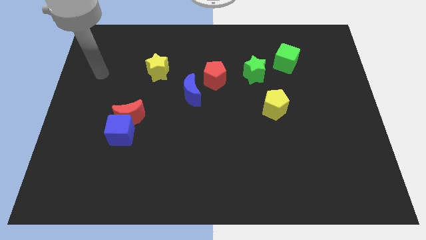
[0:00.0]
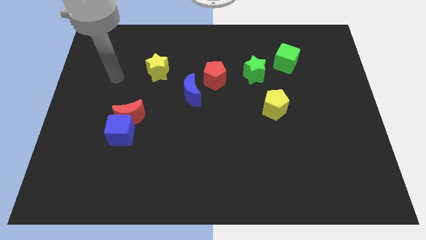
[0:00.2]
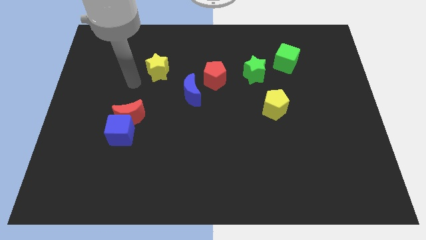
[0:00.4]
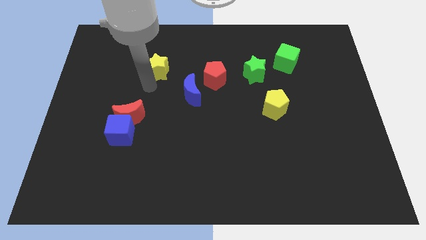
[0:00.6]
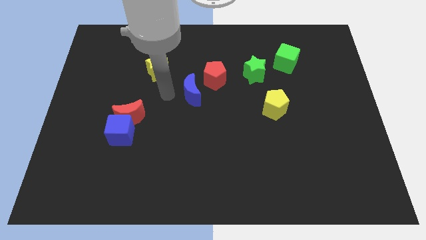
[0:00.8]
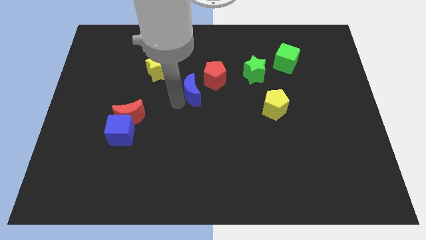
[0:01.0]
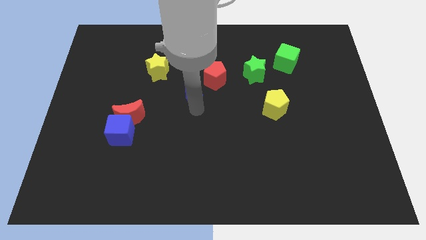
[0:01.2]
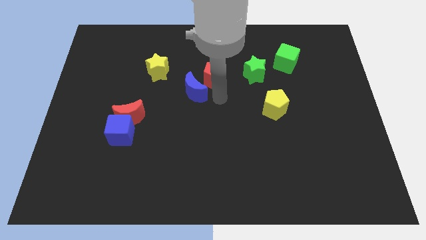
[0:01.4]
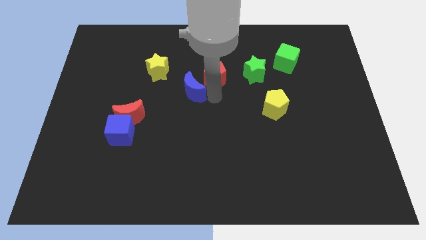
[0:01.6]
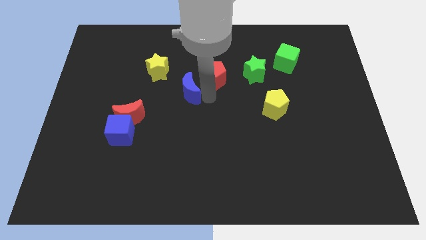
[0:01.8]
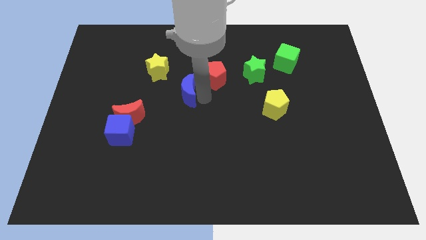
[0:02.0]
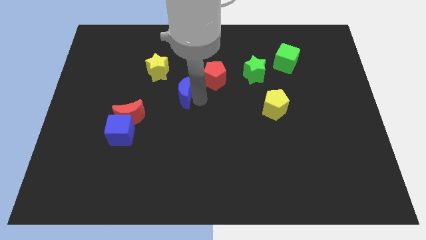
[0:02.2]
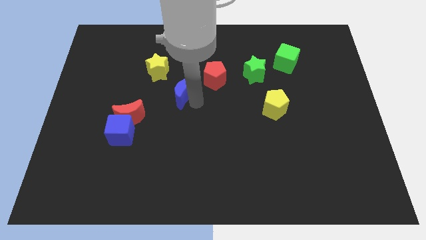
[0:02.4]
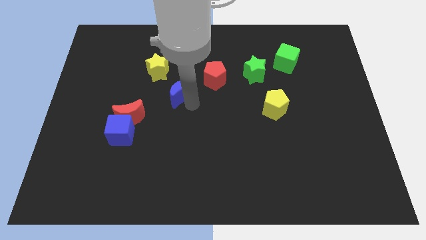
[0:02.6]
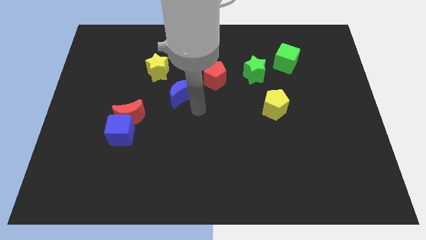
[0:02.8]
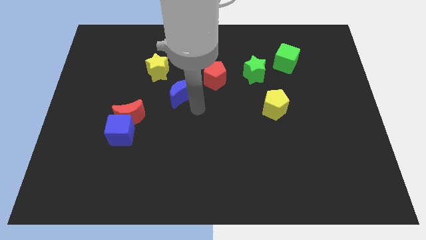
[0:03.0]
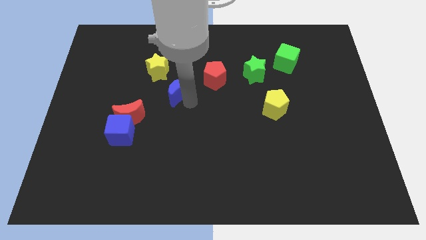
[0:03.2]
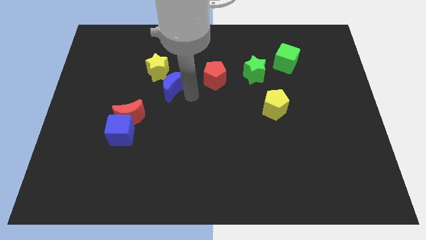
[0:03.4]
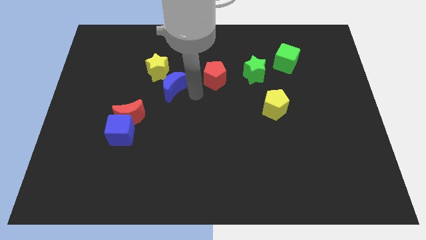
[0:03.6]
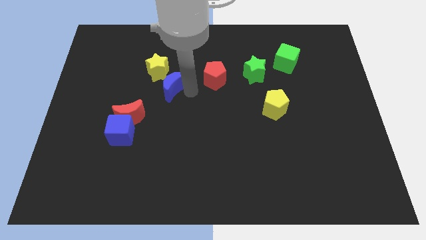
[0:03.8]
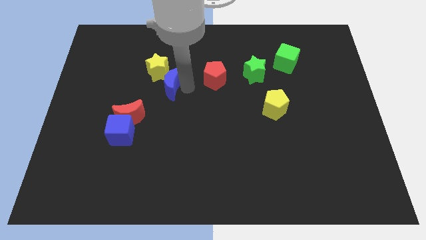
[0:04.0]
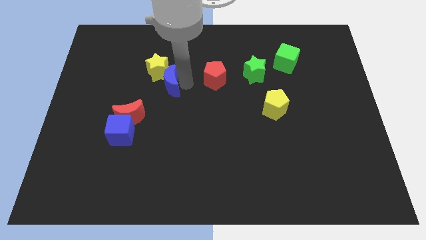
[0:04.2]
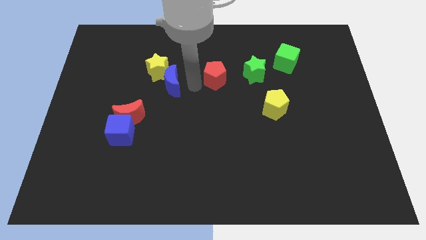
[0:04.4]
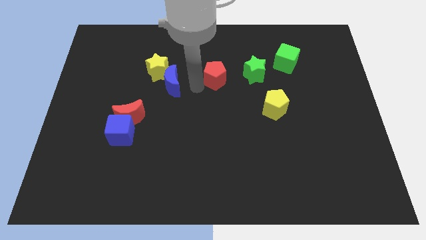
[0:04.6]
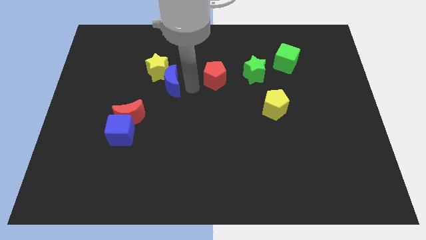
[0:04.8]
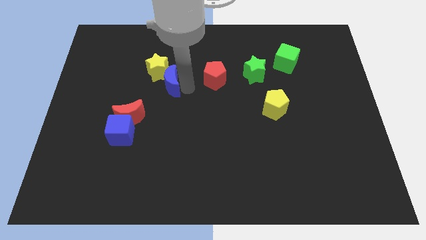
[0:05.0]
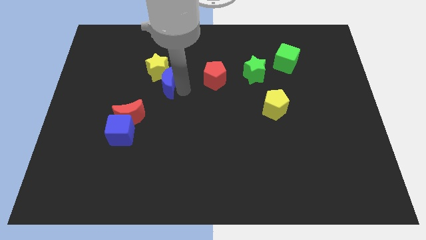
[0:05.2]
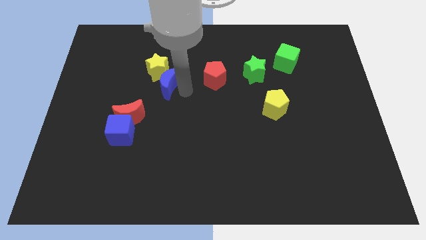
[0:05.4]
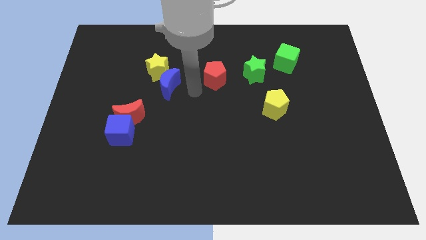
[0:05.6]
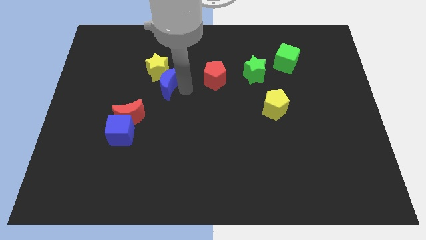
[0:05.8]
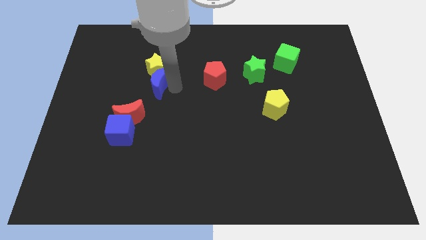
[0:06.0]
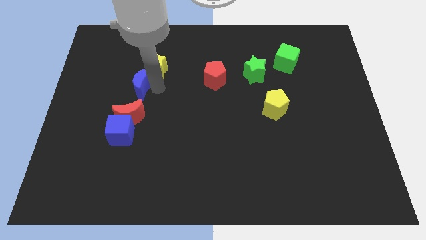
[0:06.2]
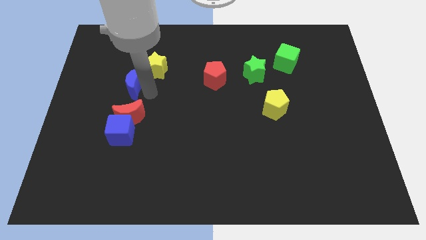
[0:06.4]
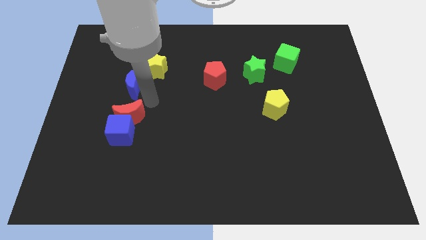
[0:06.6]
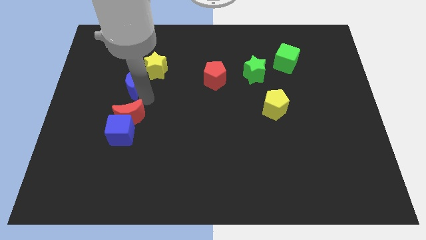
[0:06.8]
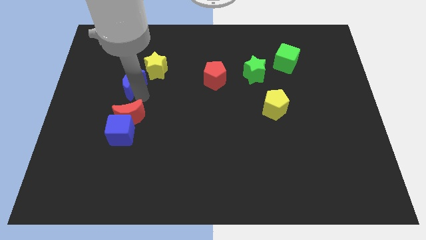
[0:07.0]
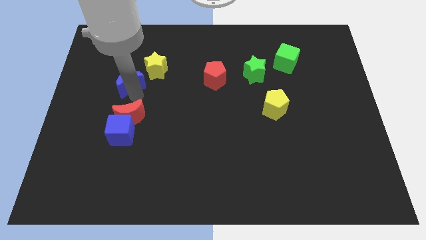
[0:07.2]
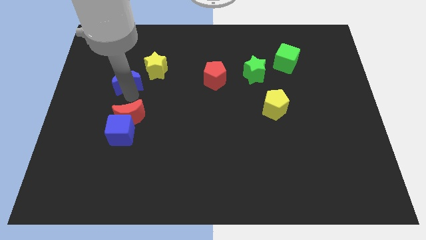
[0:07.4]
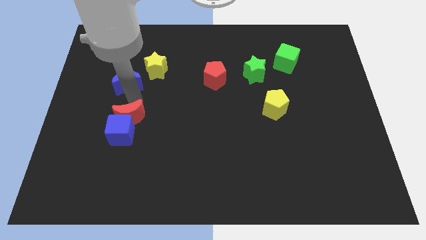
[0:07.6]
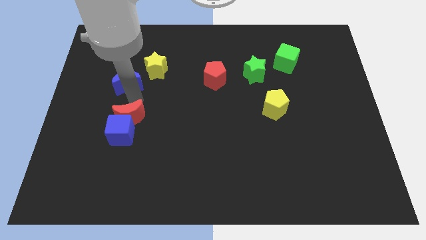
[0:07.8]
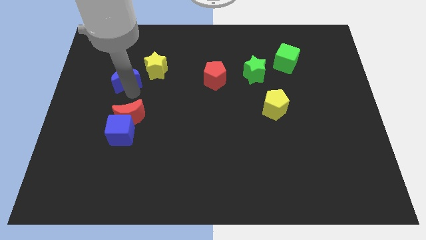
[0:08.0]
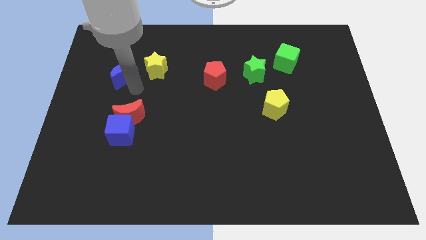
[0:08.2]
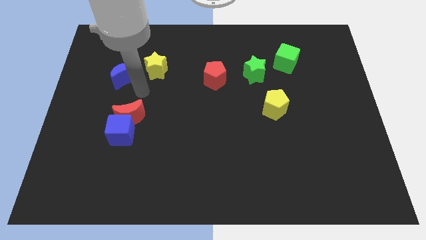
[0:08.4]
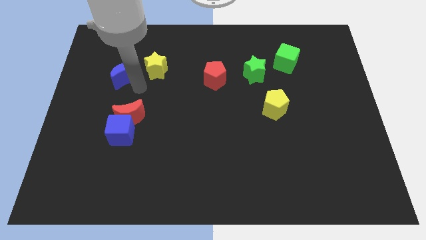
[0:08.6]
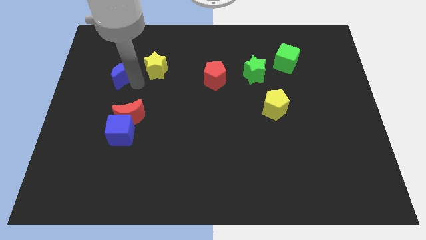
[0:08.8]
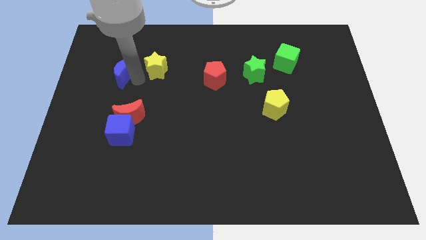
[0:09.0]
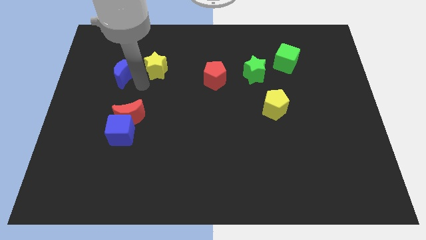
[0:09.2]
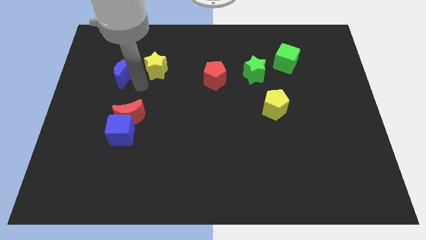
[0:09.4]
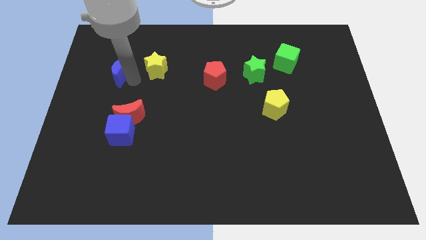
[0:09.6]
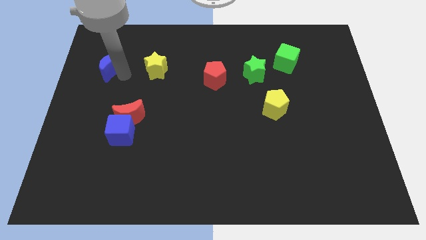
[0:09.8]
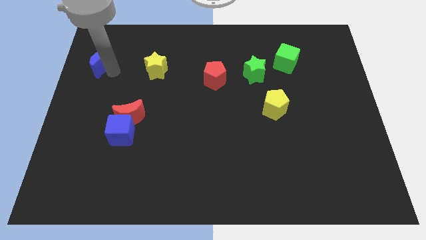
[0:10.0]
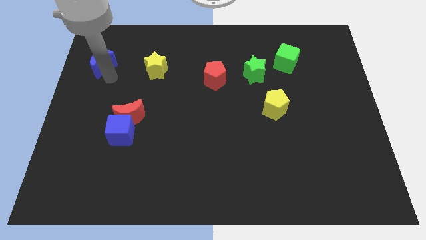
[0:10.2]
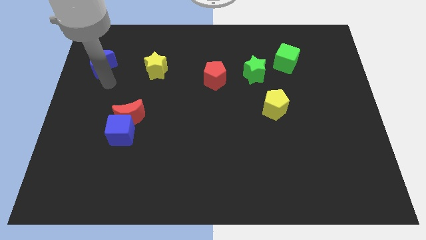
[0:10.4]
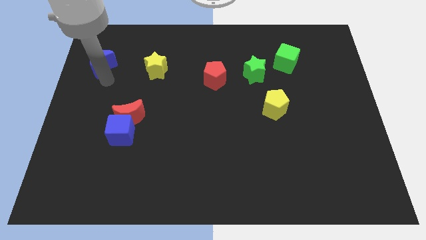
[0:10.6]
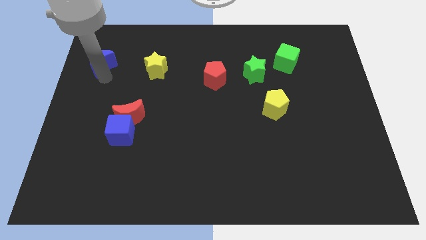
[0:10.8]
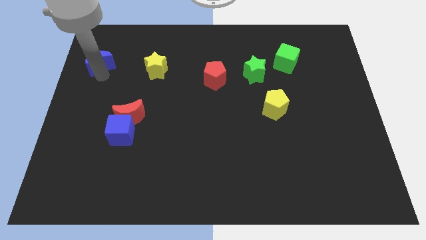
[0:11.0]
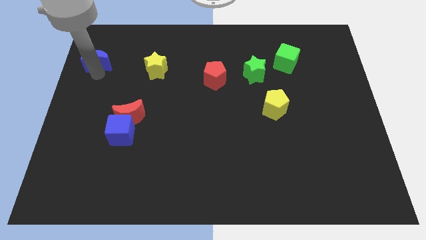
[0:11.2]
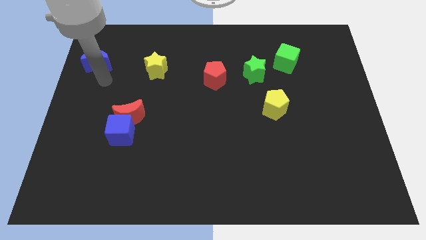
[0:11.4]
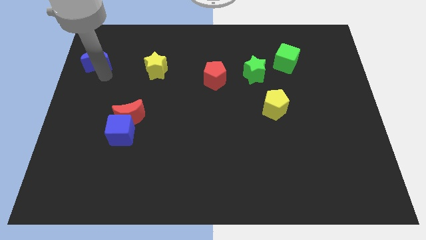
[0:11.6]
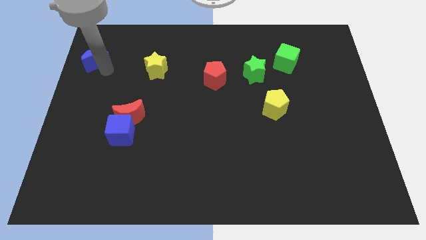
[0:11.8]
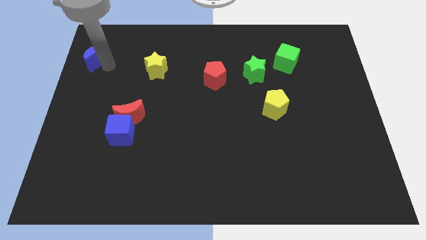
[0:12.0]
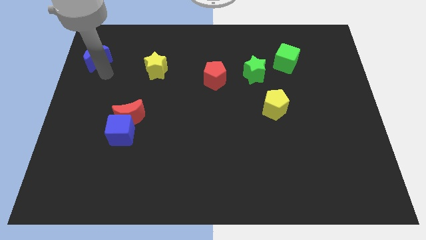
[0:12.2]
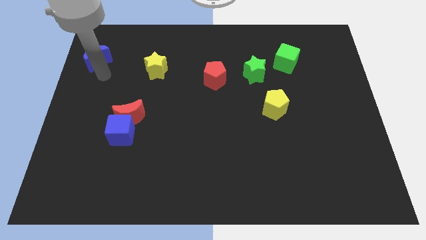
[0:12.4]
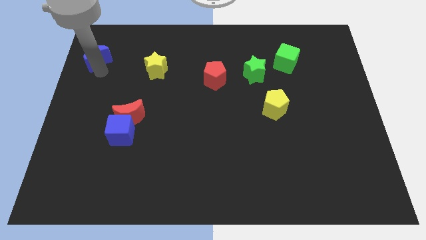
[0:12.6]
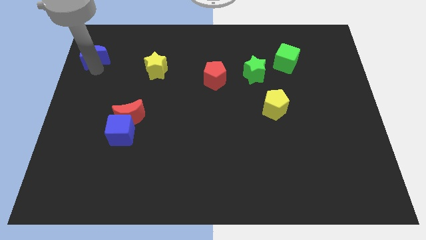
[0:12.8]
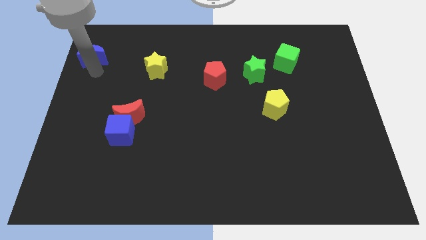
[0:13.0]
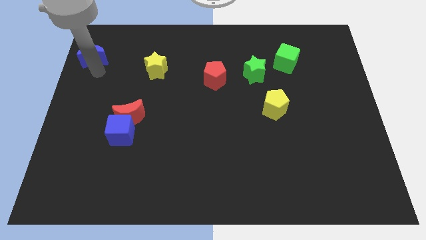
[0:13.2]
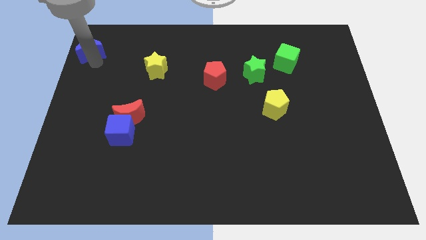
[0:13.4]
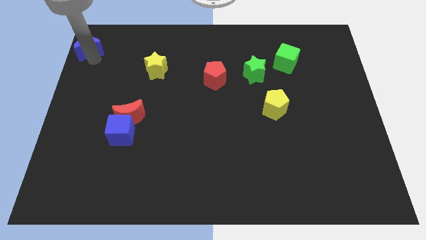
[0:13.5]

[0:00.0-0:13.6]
put the blue moon to the top left corner

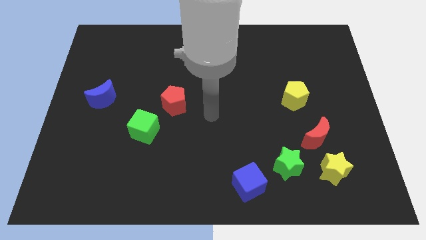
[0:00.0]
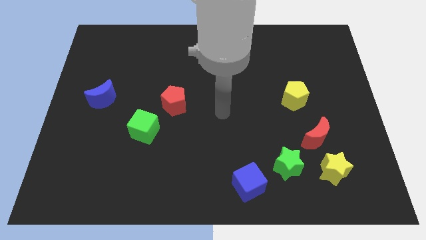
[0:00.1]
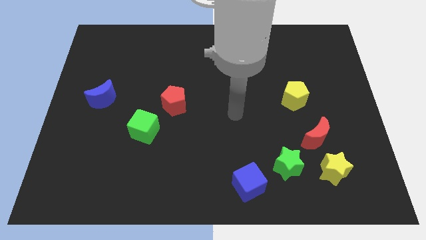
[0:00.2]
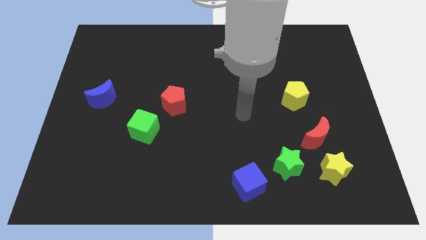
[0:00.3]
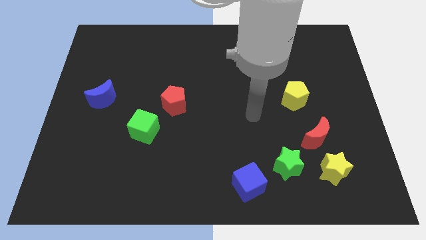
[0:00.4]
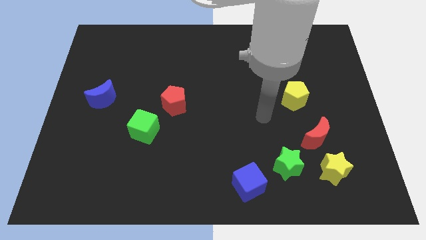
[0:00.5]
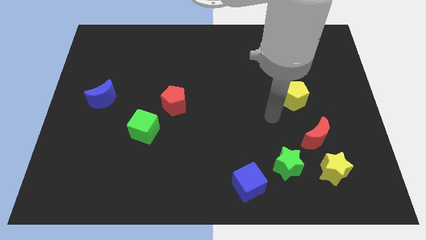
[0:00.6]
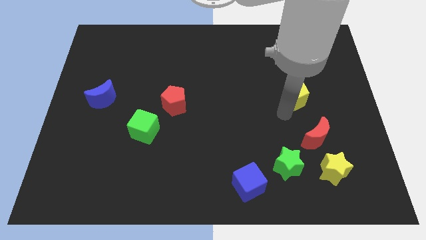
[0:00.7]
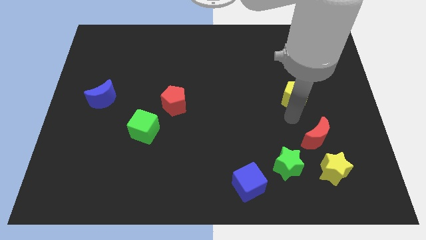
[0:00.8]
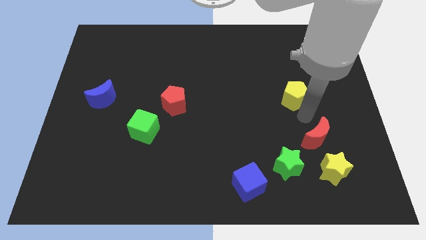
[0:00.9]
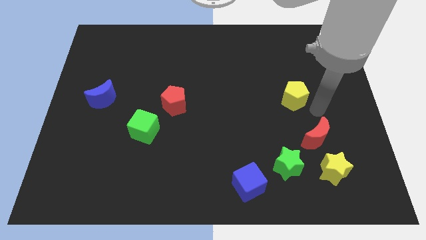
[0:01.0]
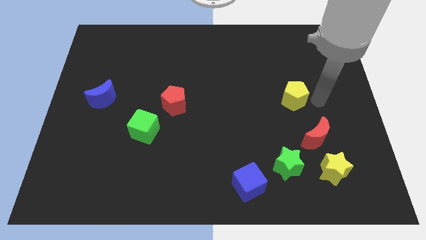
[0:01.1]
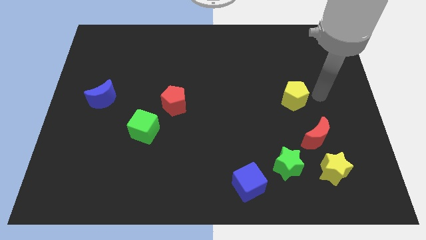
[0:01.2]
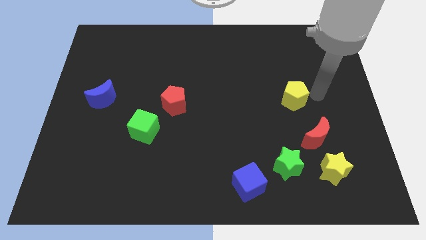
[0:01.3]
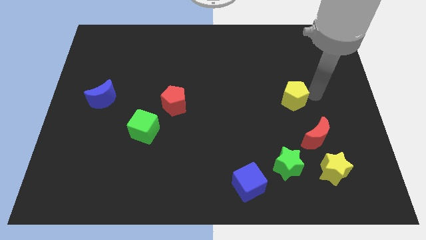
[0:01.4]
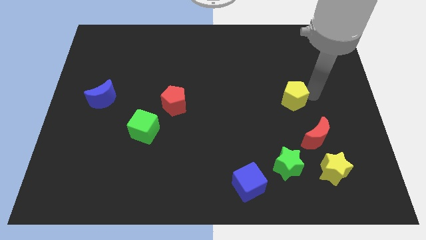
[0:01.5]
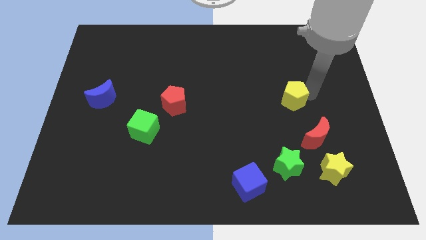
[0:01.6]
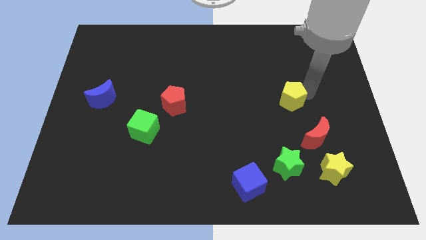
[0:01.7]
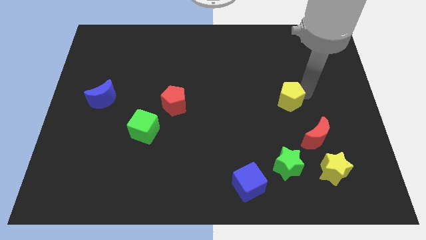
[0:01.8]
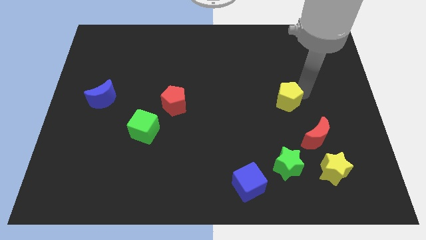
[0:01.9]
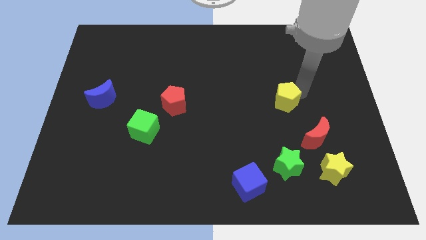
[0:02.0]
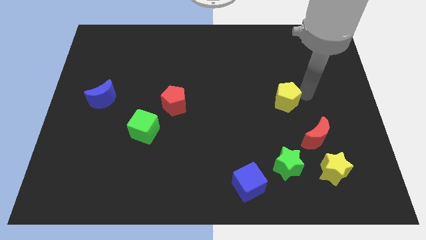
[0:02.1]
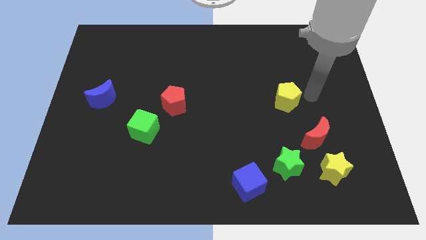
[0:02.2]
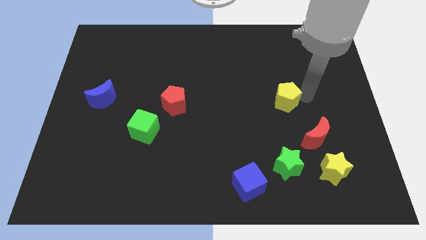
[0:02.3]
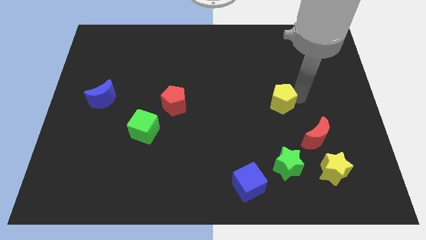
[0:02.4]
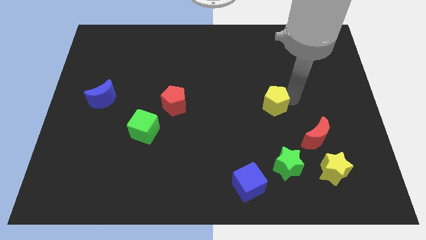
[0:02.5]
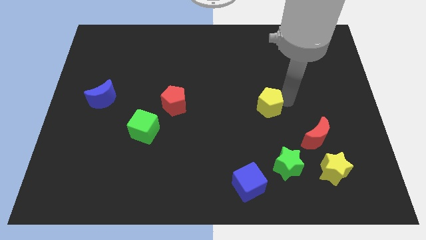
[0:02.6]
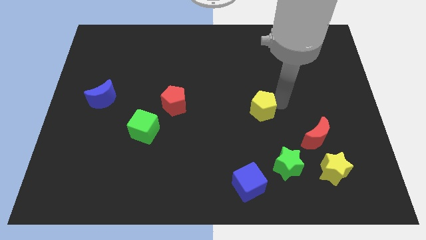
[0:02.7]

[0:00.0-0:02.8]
slide the yellow pentagon to the middle
